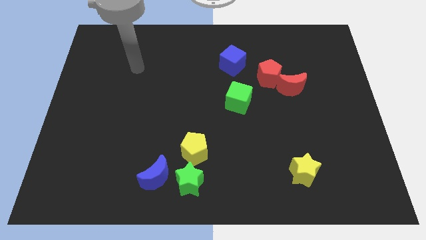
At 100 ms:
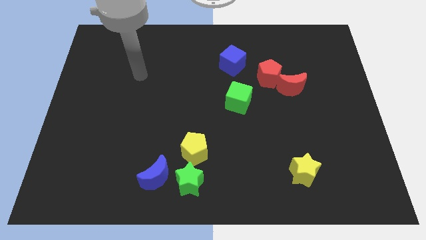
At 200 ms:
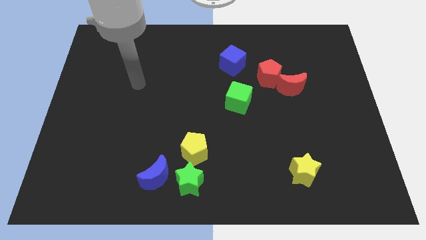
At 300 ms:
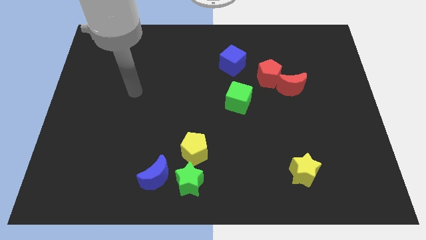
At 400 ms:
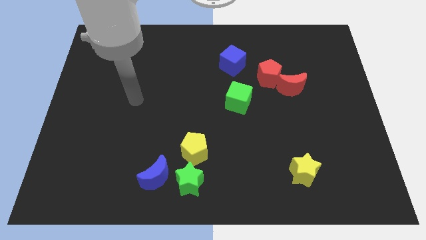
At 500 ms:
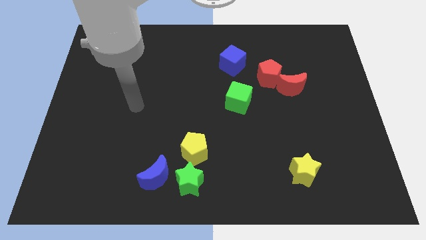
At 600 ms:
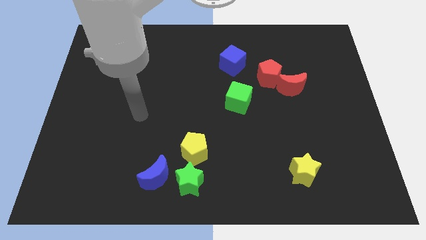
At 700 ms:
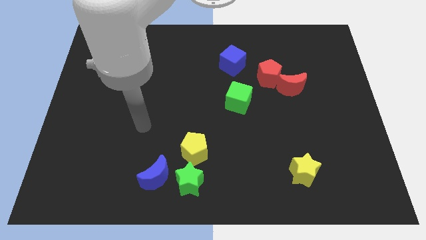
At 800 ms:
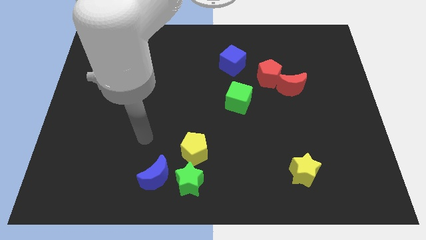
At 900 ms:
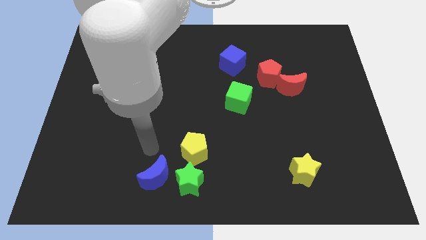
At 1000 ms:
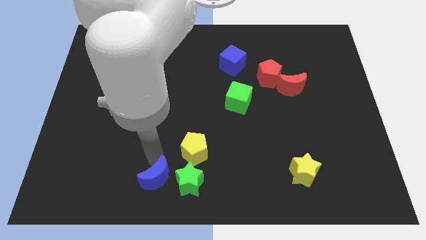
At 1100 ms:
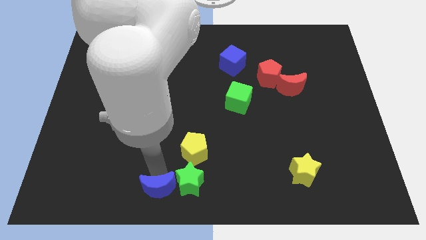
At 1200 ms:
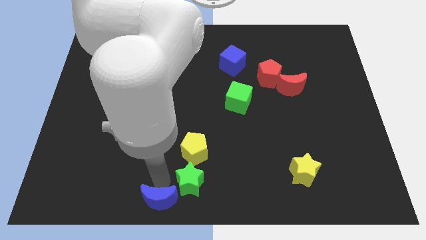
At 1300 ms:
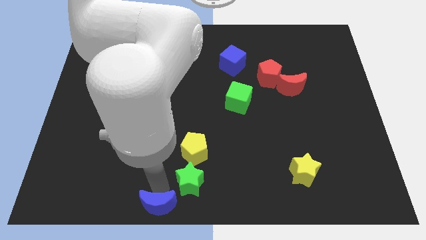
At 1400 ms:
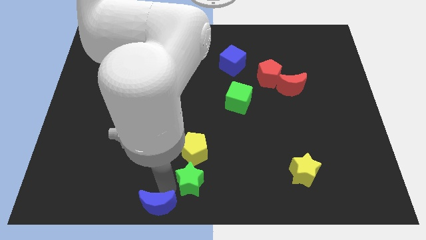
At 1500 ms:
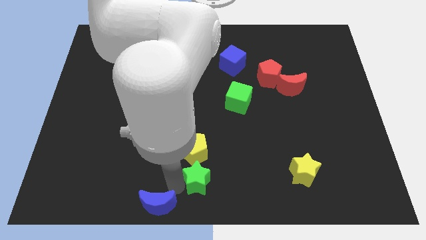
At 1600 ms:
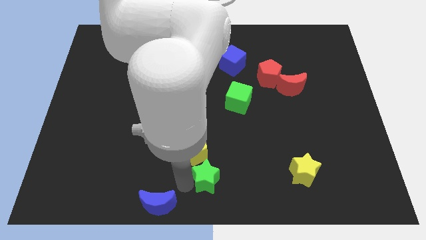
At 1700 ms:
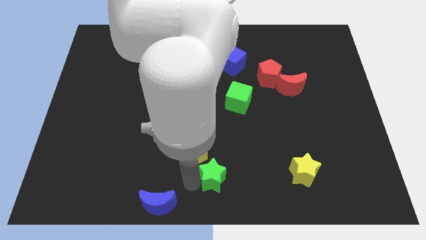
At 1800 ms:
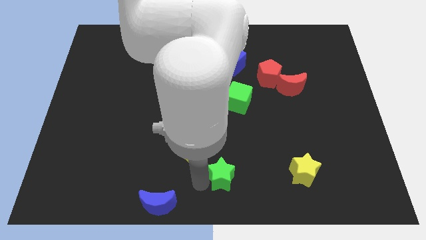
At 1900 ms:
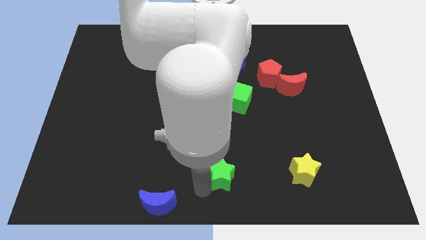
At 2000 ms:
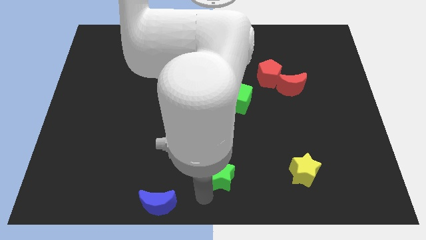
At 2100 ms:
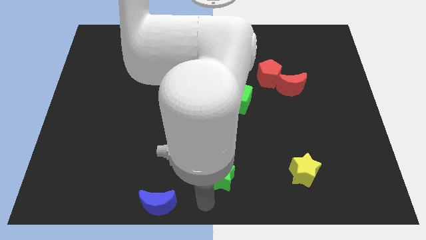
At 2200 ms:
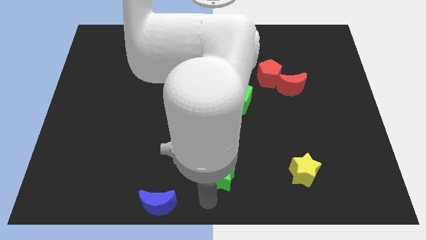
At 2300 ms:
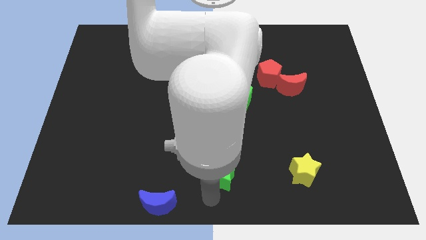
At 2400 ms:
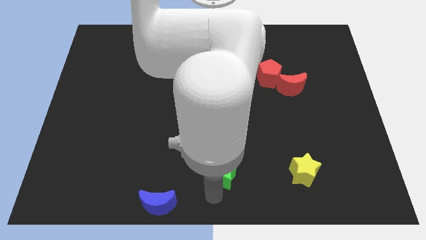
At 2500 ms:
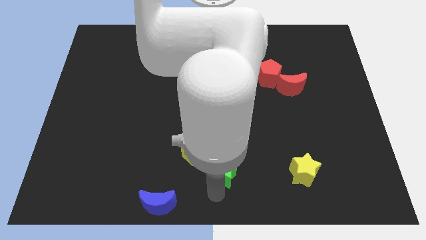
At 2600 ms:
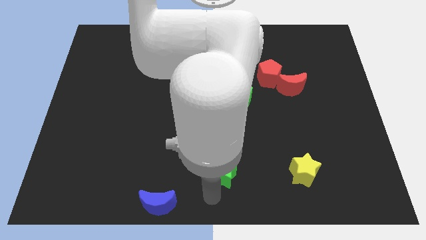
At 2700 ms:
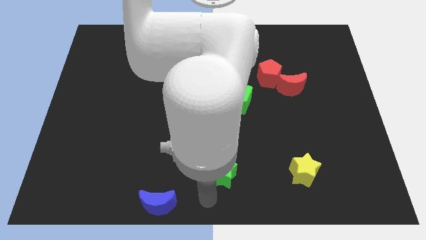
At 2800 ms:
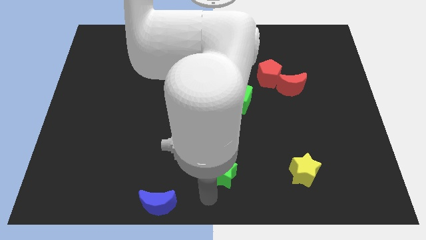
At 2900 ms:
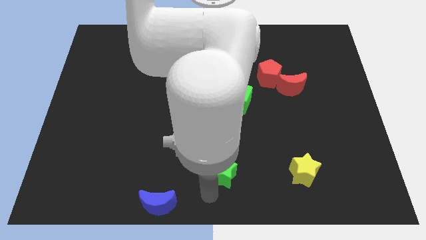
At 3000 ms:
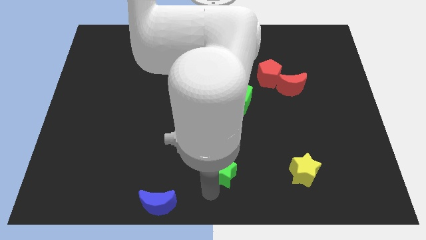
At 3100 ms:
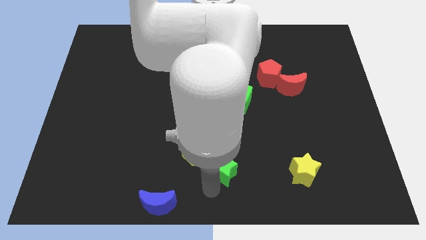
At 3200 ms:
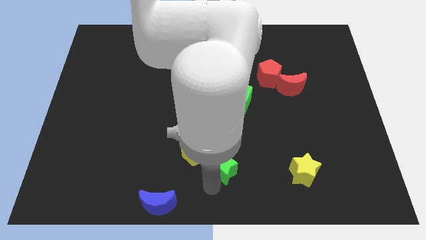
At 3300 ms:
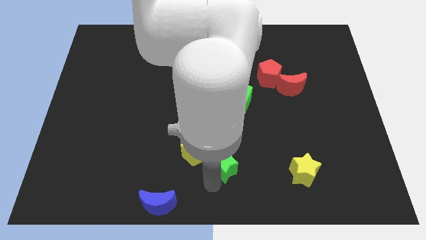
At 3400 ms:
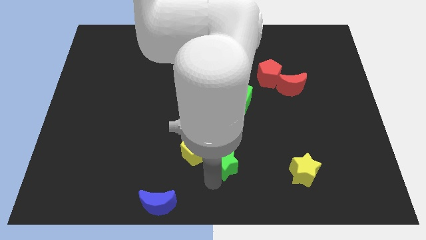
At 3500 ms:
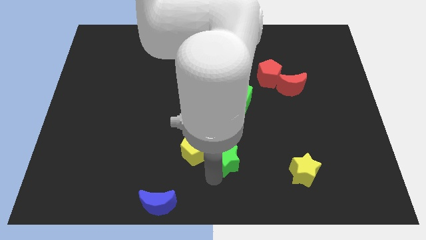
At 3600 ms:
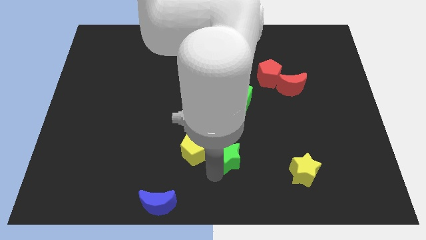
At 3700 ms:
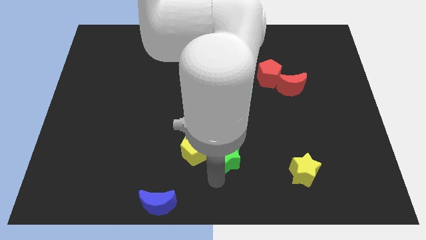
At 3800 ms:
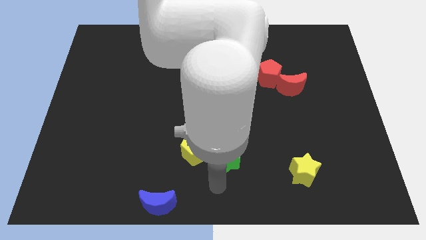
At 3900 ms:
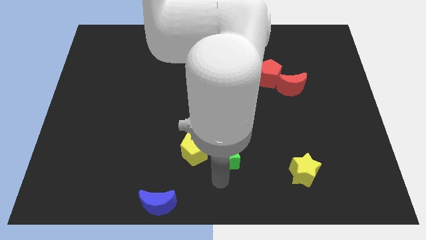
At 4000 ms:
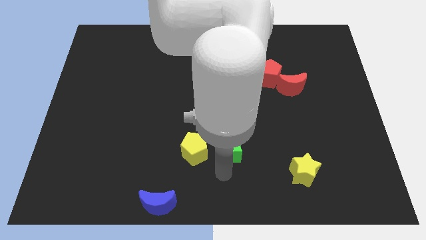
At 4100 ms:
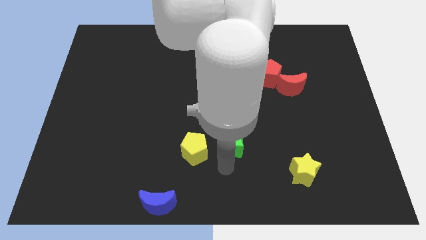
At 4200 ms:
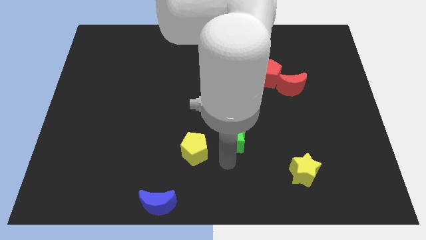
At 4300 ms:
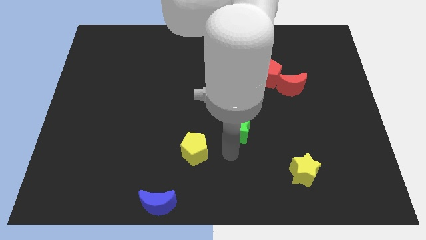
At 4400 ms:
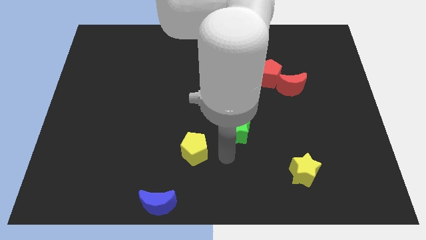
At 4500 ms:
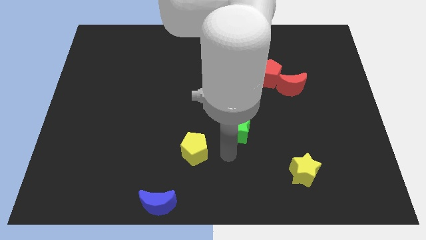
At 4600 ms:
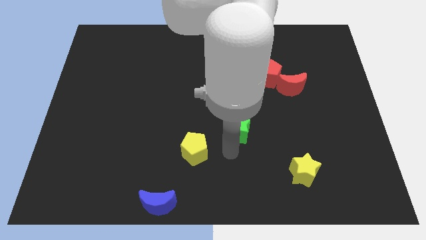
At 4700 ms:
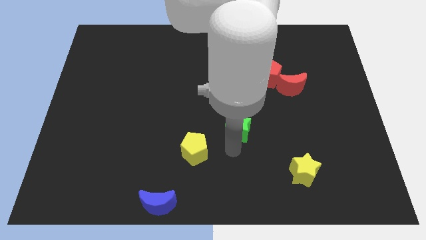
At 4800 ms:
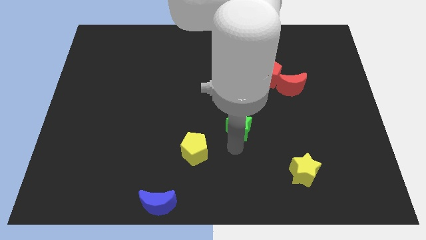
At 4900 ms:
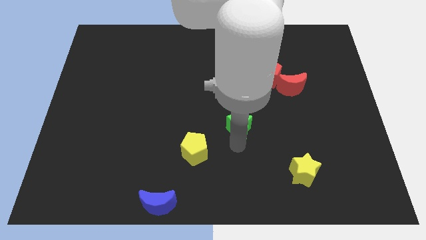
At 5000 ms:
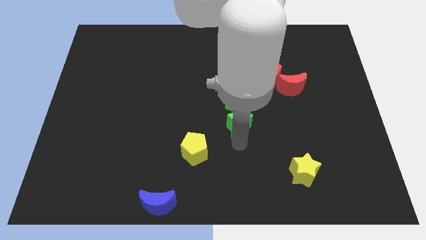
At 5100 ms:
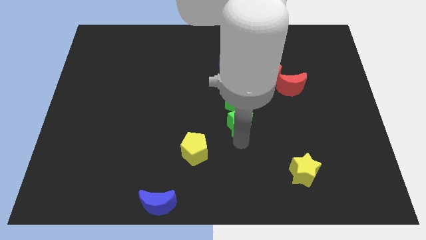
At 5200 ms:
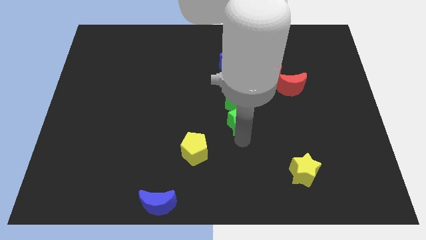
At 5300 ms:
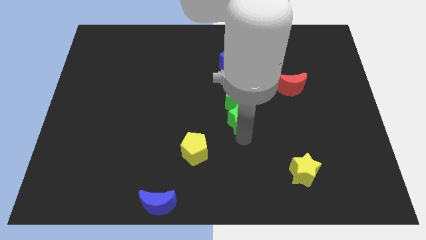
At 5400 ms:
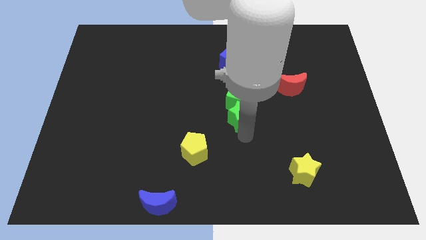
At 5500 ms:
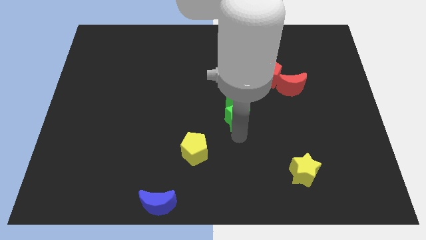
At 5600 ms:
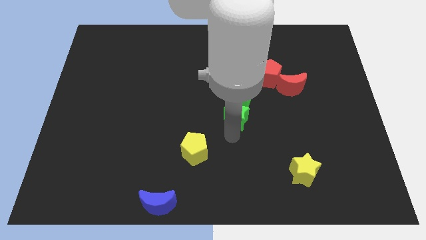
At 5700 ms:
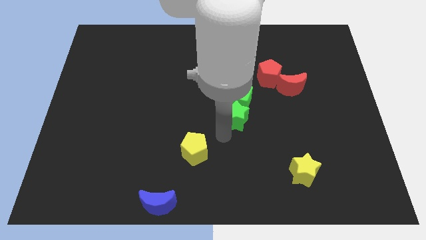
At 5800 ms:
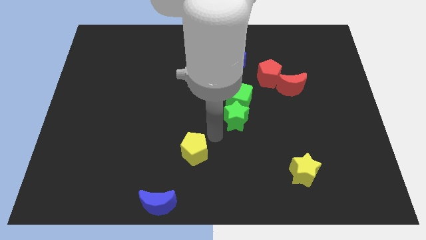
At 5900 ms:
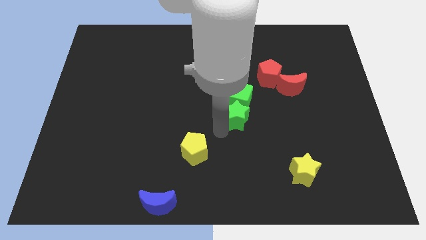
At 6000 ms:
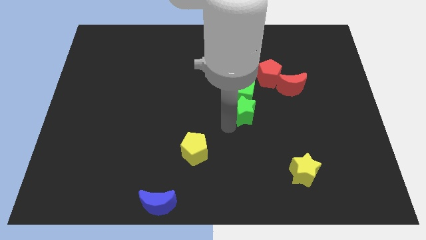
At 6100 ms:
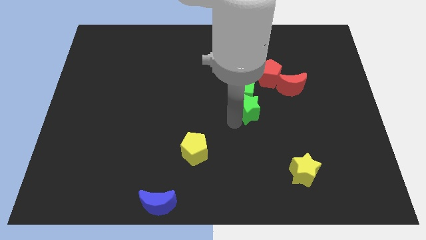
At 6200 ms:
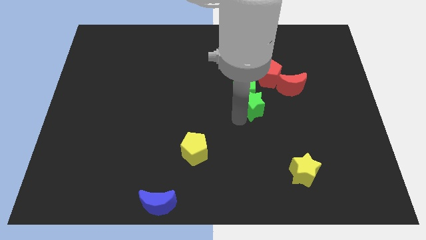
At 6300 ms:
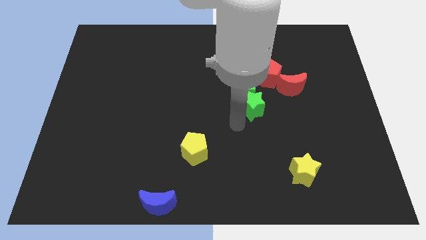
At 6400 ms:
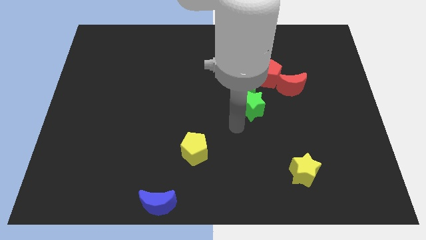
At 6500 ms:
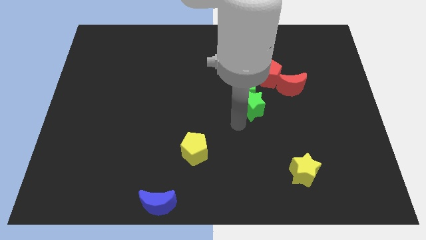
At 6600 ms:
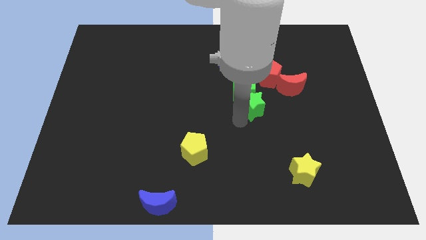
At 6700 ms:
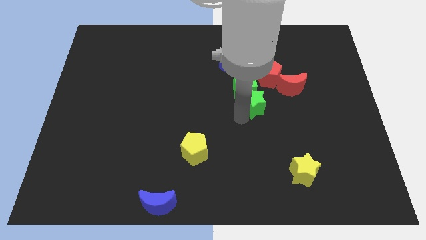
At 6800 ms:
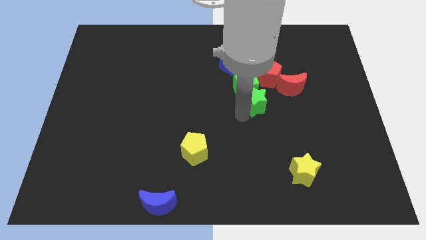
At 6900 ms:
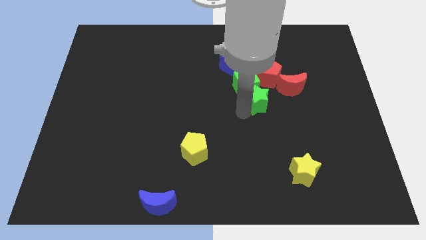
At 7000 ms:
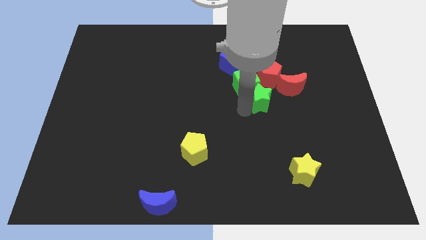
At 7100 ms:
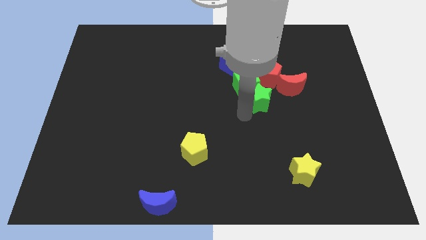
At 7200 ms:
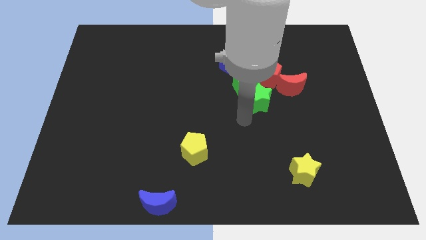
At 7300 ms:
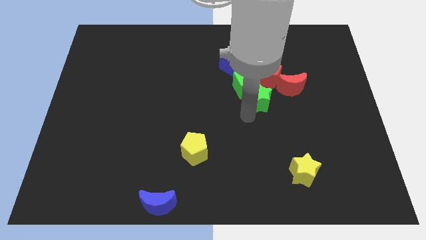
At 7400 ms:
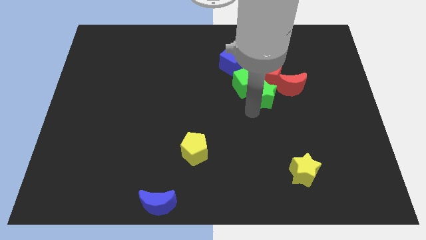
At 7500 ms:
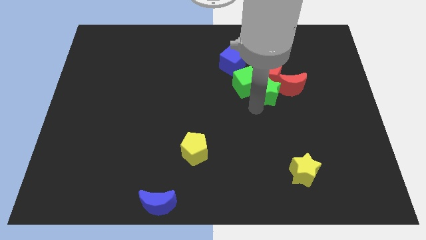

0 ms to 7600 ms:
move the green star towards the red pentagon

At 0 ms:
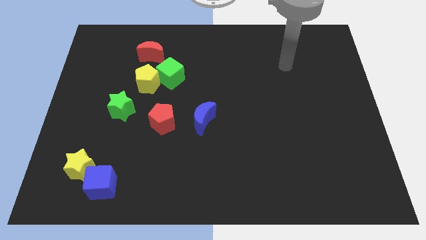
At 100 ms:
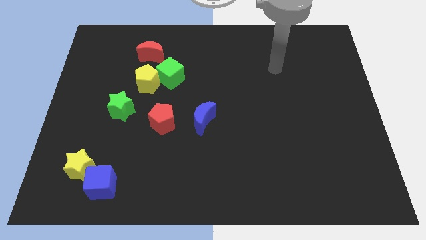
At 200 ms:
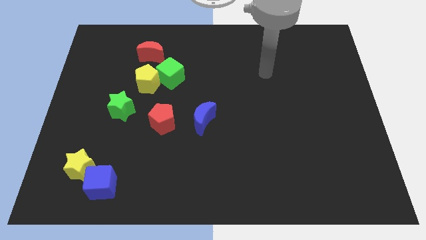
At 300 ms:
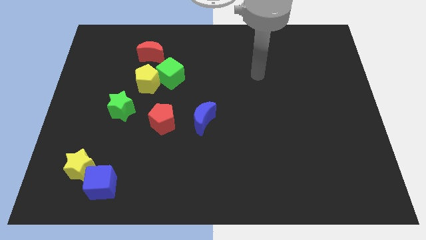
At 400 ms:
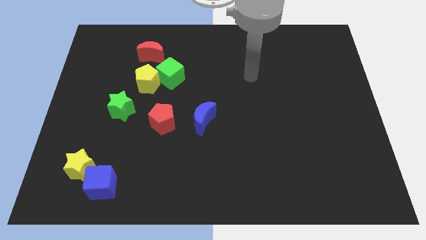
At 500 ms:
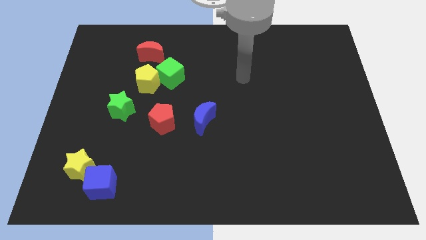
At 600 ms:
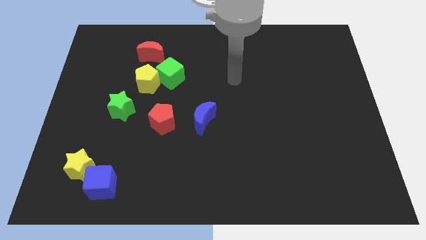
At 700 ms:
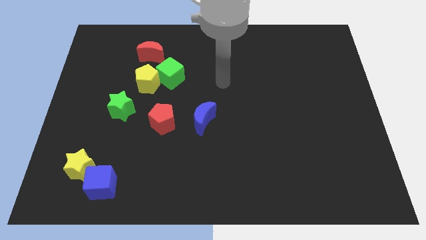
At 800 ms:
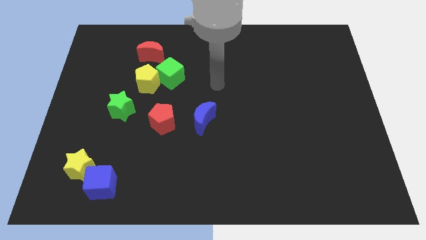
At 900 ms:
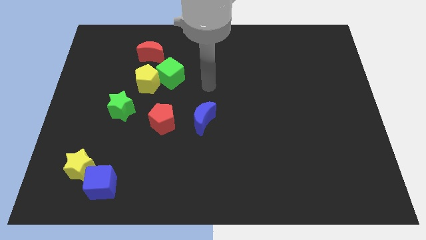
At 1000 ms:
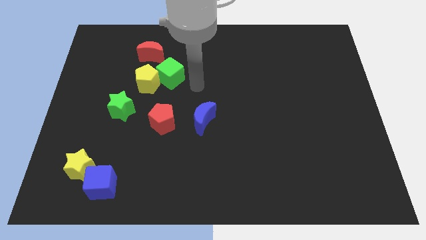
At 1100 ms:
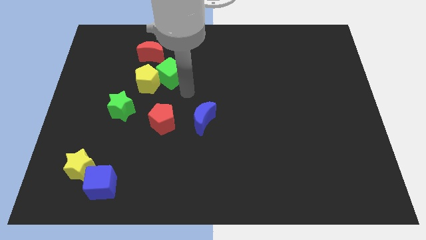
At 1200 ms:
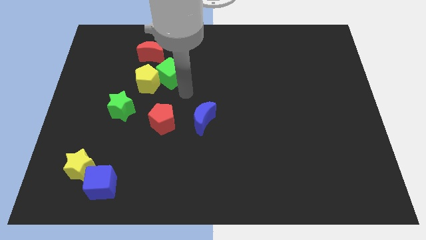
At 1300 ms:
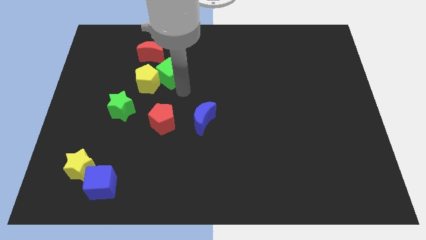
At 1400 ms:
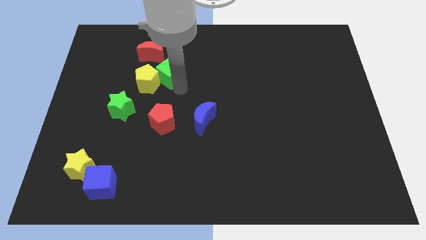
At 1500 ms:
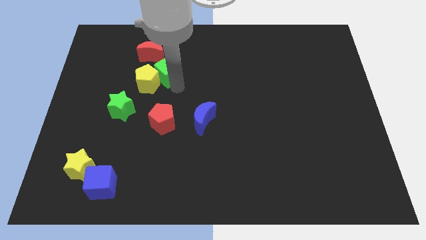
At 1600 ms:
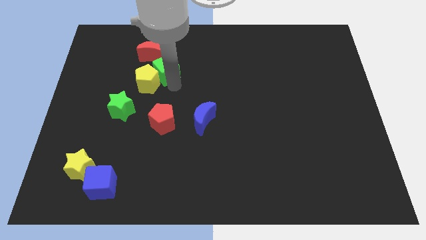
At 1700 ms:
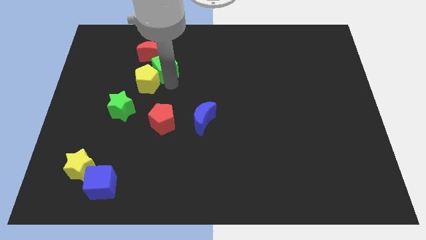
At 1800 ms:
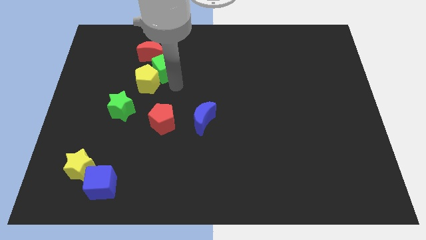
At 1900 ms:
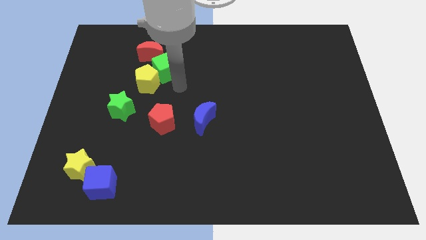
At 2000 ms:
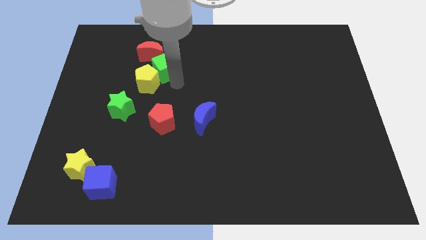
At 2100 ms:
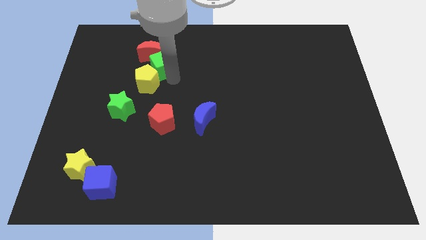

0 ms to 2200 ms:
slide the green cube close to the red moon
